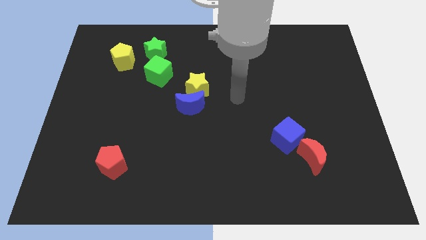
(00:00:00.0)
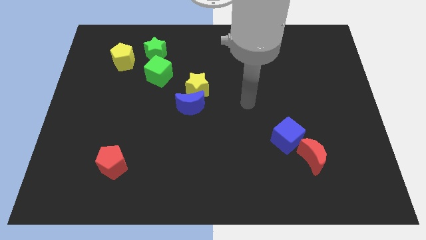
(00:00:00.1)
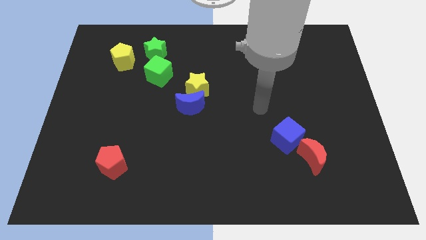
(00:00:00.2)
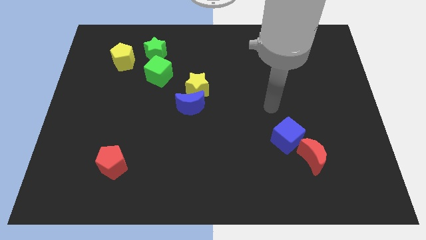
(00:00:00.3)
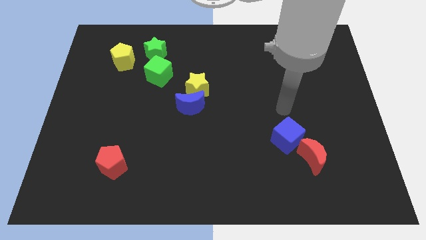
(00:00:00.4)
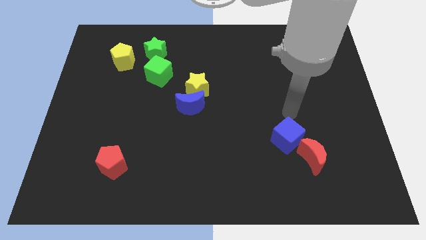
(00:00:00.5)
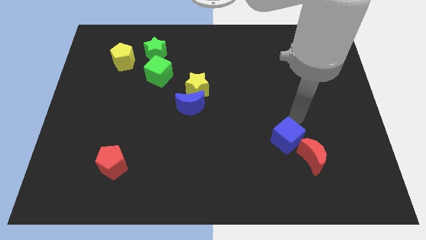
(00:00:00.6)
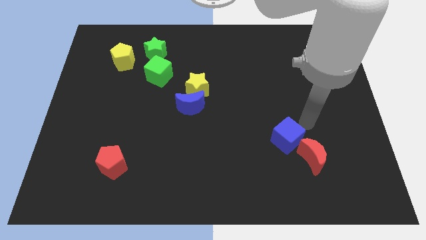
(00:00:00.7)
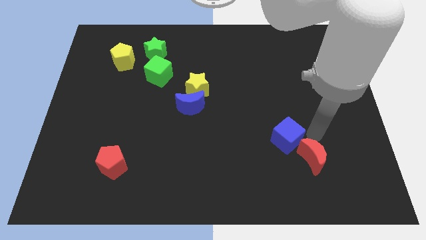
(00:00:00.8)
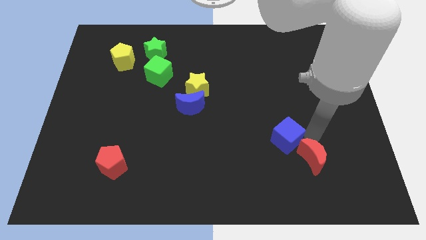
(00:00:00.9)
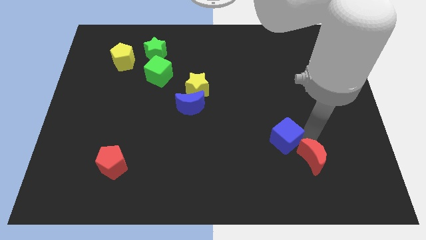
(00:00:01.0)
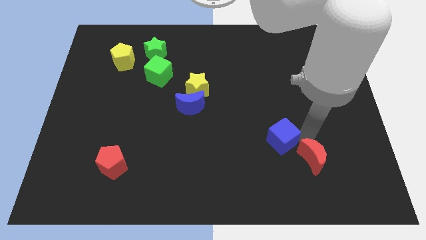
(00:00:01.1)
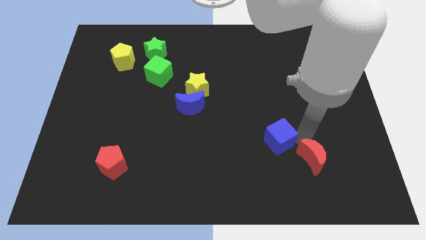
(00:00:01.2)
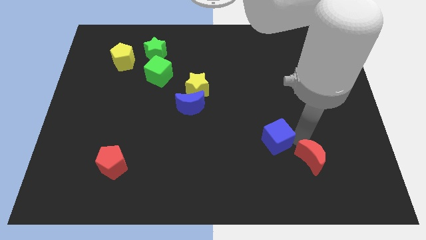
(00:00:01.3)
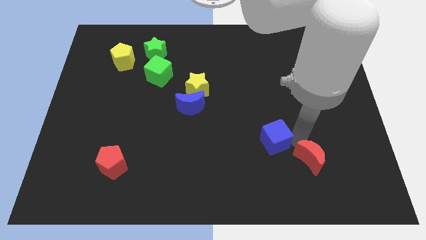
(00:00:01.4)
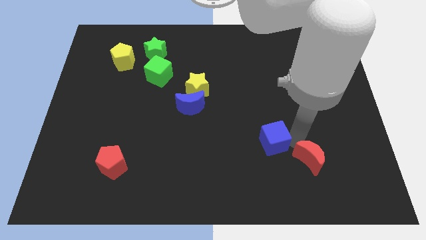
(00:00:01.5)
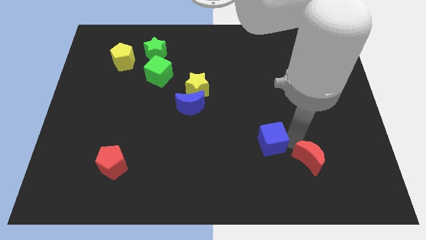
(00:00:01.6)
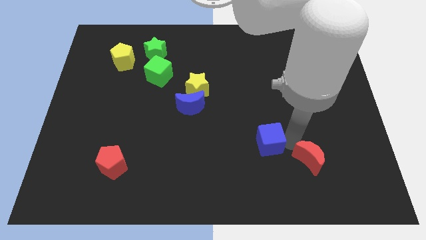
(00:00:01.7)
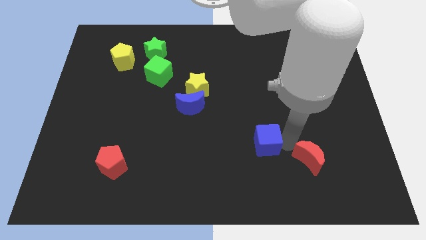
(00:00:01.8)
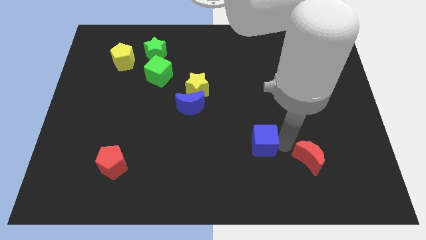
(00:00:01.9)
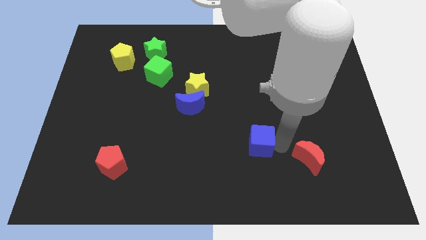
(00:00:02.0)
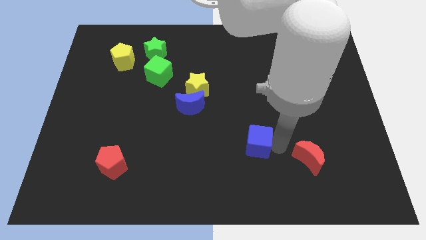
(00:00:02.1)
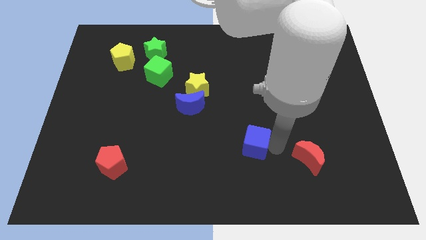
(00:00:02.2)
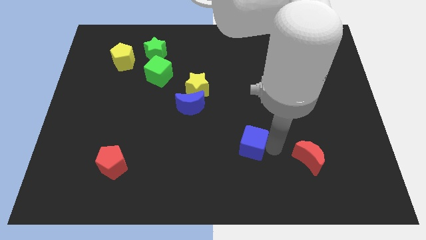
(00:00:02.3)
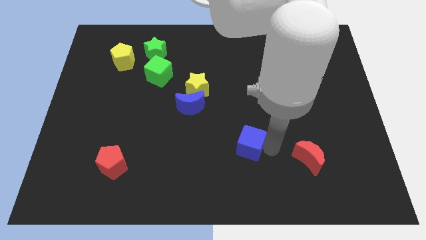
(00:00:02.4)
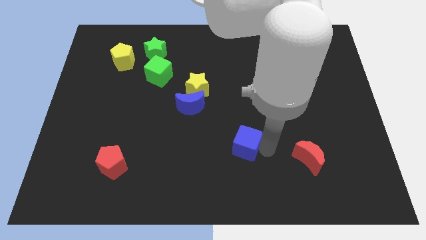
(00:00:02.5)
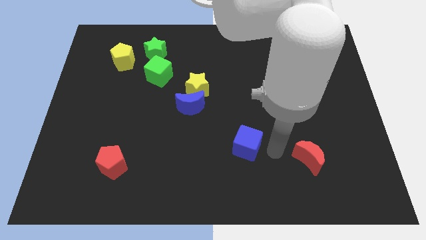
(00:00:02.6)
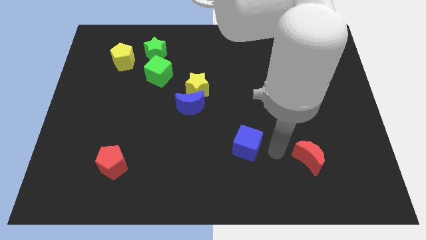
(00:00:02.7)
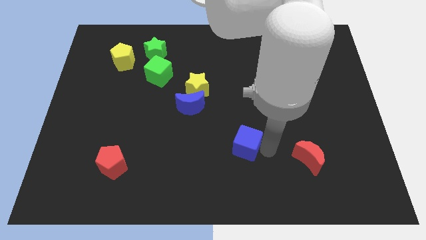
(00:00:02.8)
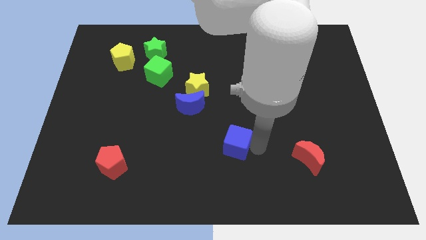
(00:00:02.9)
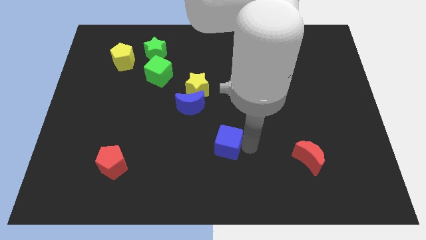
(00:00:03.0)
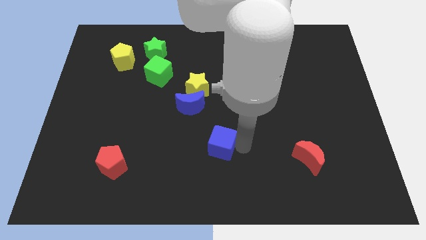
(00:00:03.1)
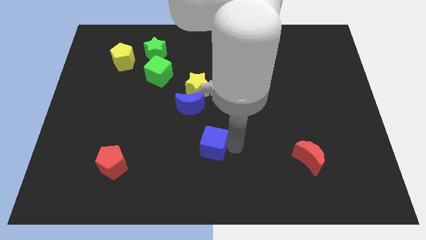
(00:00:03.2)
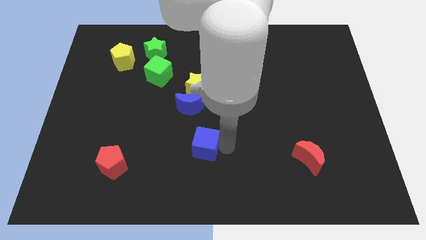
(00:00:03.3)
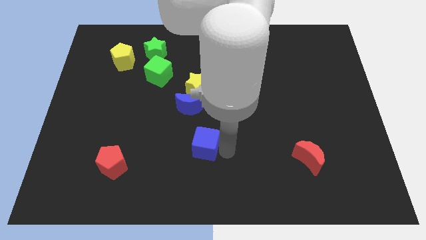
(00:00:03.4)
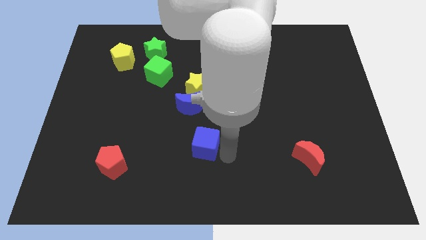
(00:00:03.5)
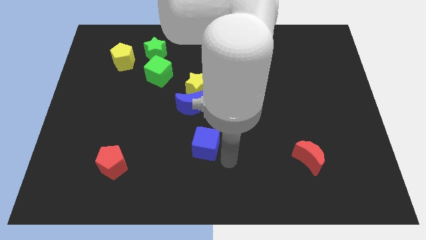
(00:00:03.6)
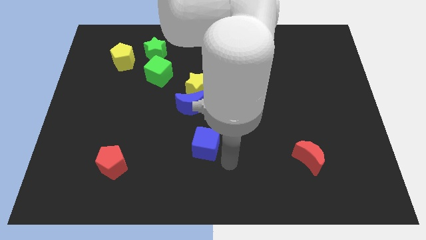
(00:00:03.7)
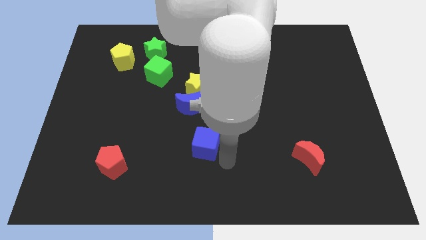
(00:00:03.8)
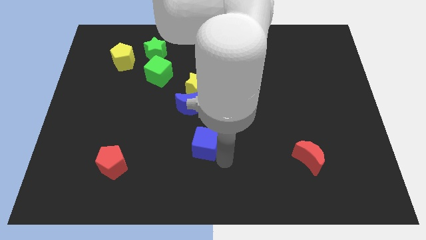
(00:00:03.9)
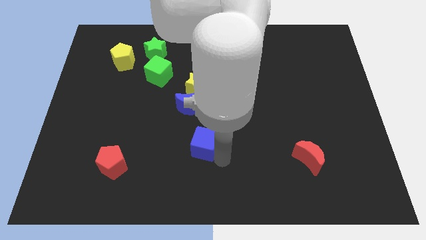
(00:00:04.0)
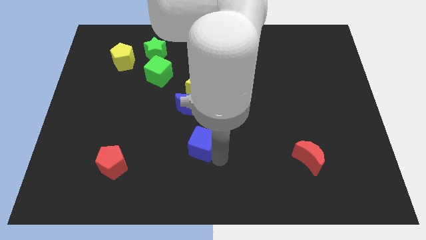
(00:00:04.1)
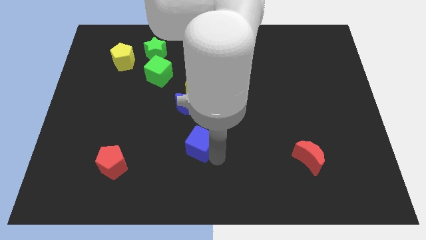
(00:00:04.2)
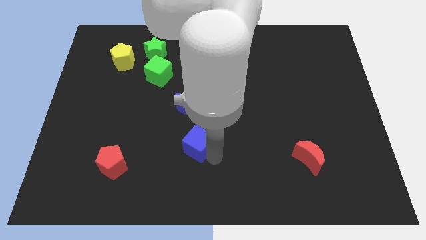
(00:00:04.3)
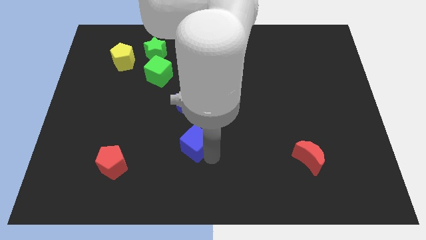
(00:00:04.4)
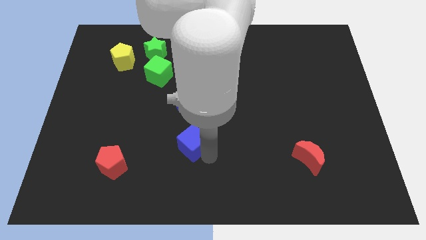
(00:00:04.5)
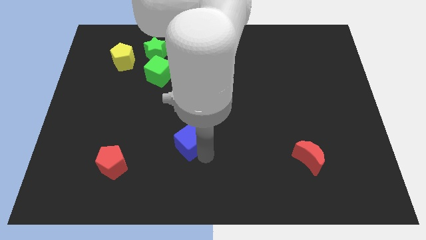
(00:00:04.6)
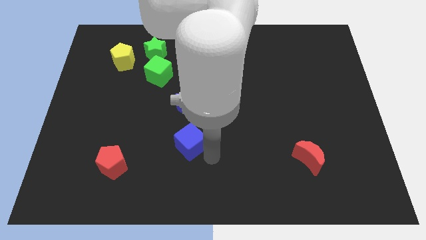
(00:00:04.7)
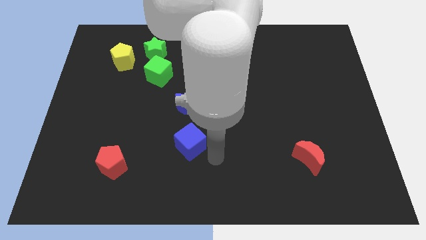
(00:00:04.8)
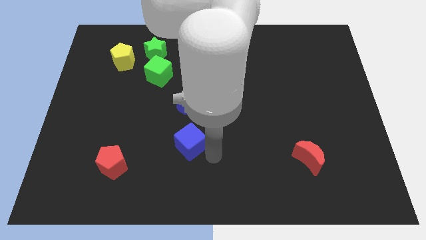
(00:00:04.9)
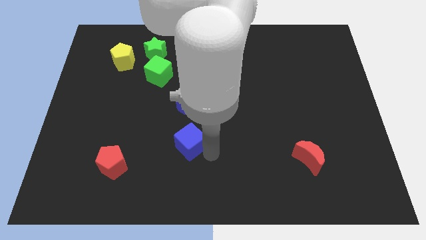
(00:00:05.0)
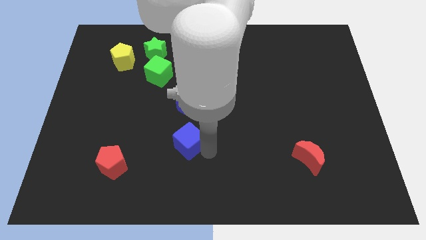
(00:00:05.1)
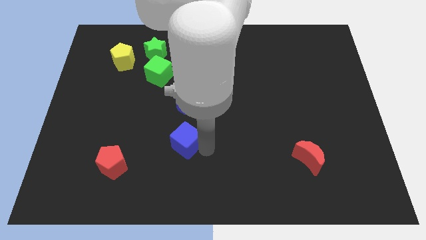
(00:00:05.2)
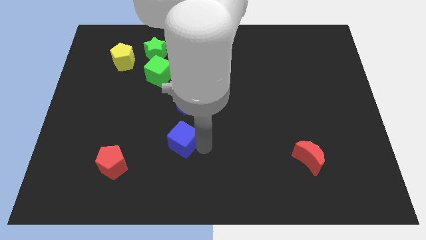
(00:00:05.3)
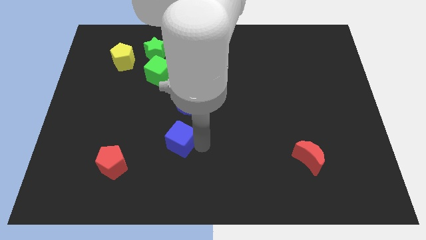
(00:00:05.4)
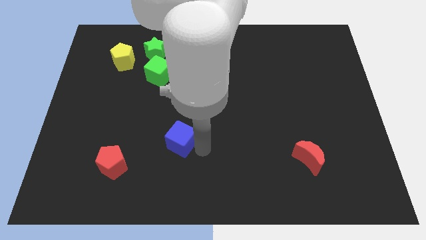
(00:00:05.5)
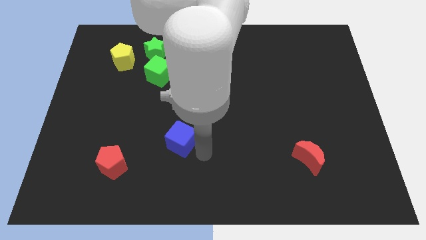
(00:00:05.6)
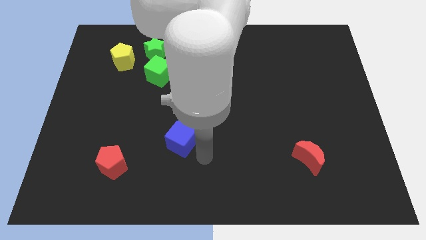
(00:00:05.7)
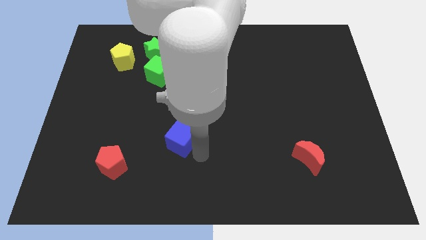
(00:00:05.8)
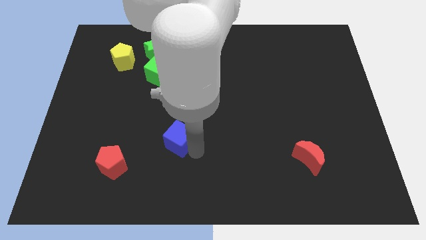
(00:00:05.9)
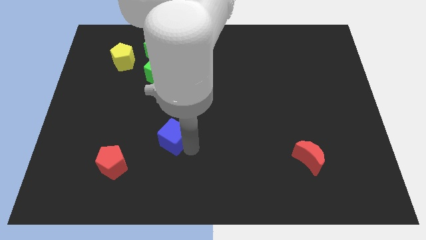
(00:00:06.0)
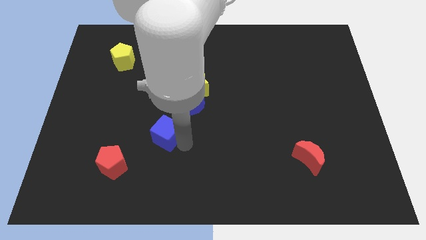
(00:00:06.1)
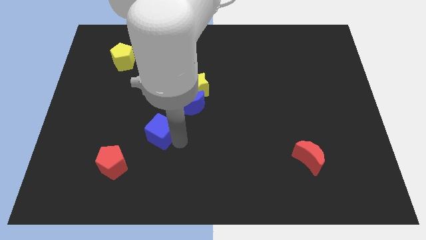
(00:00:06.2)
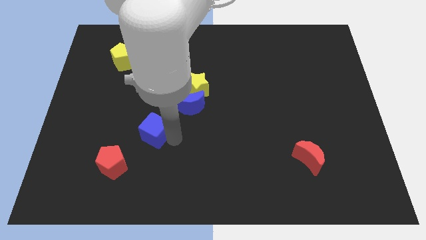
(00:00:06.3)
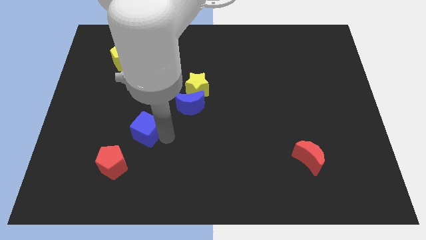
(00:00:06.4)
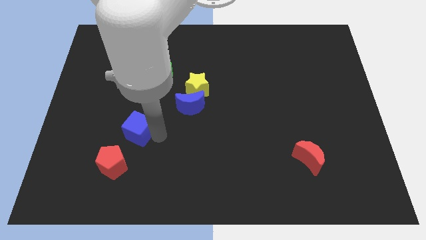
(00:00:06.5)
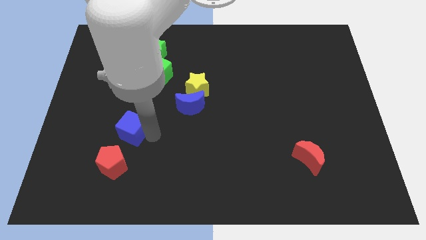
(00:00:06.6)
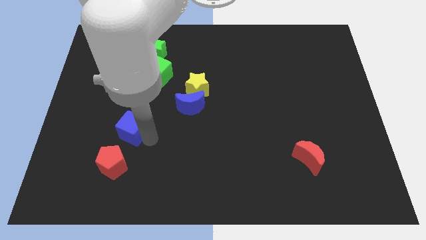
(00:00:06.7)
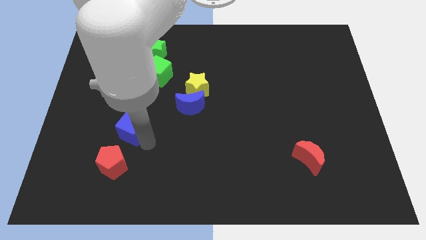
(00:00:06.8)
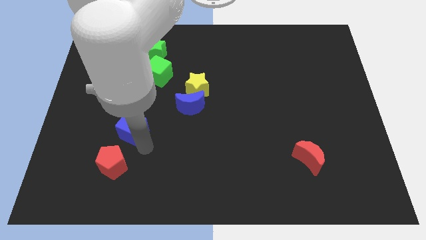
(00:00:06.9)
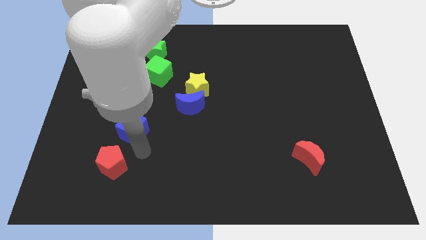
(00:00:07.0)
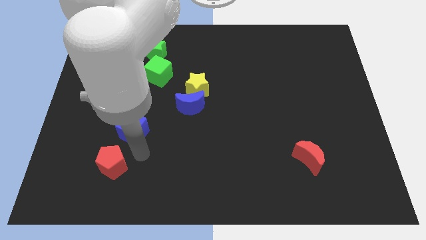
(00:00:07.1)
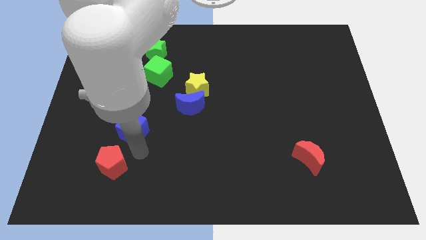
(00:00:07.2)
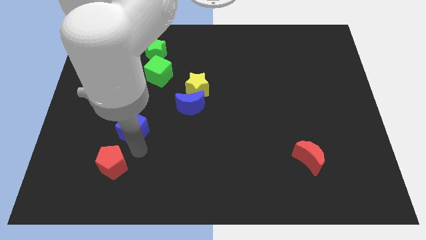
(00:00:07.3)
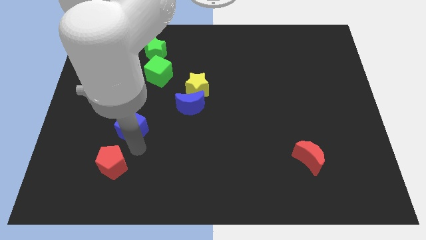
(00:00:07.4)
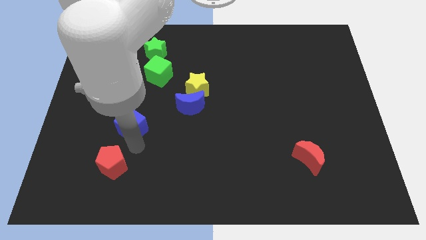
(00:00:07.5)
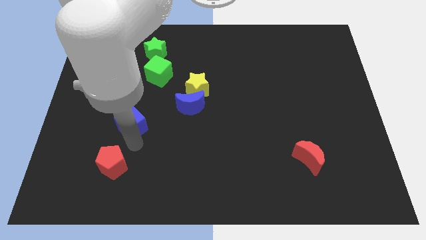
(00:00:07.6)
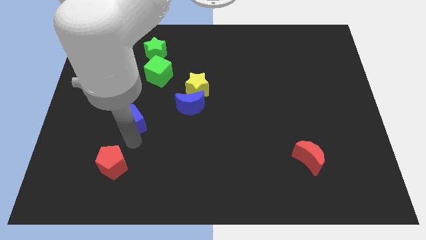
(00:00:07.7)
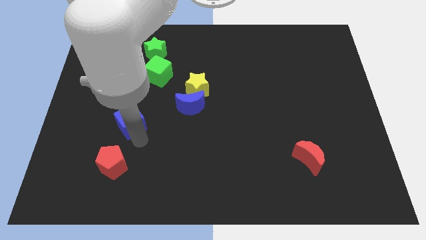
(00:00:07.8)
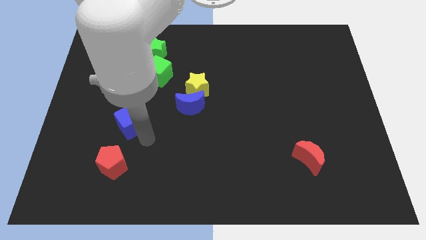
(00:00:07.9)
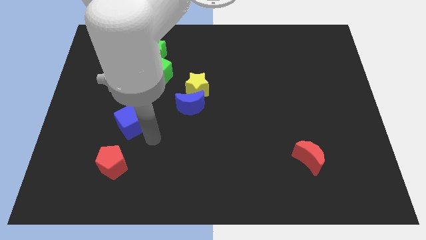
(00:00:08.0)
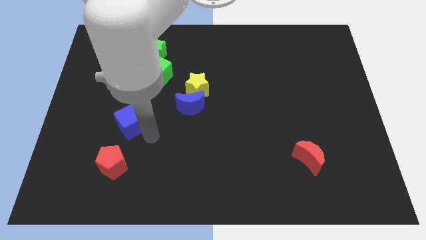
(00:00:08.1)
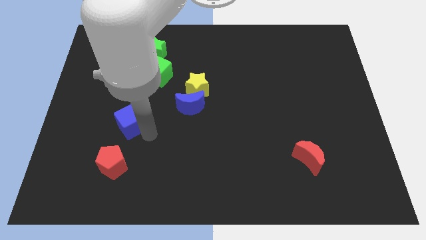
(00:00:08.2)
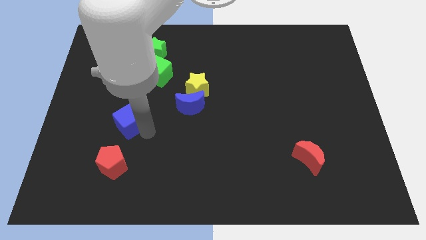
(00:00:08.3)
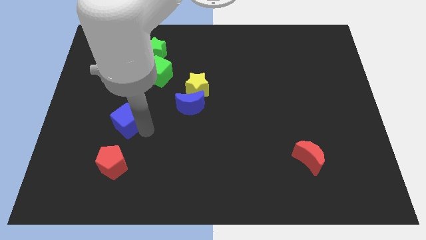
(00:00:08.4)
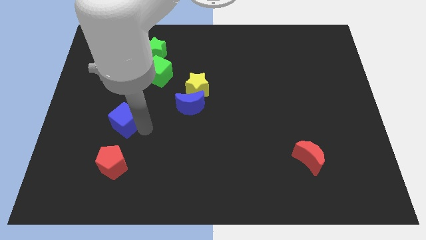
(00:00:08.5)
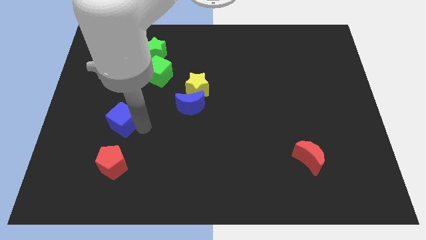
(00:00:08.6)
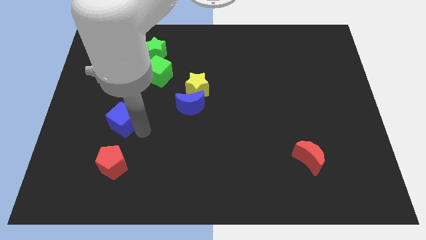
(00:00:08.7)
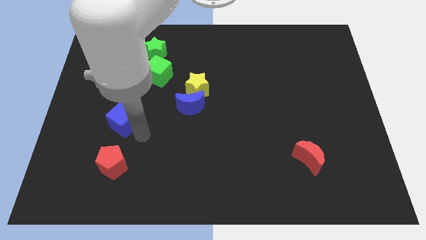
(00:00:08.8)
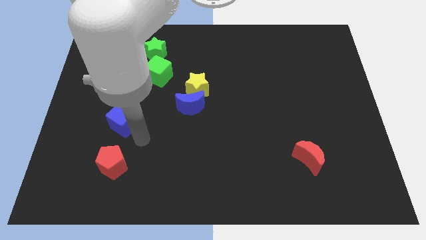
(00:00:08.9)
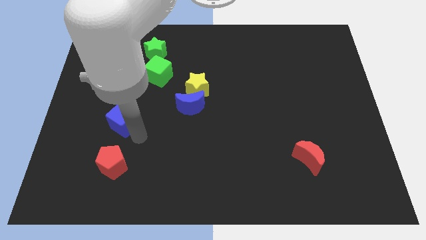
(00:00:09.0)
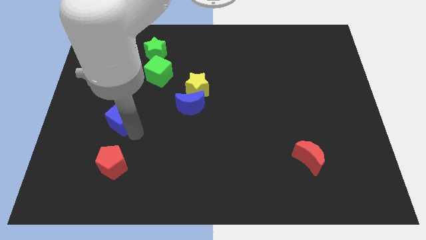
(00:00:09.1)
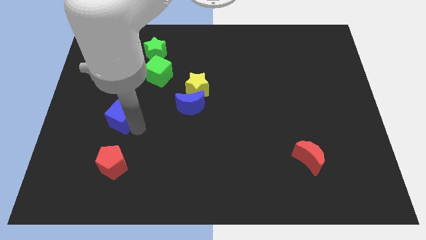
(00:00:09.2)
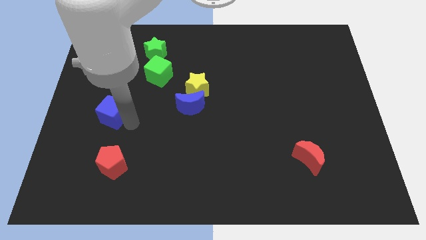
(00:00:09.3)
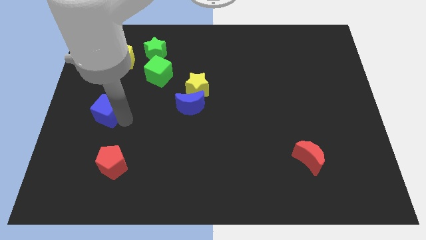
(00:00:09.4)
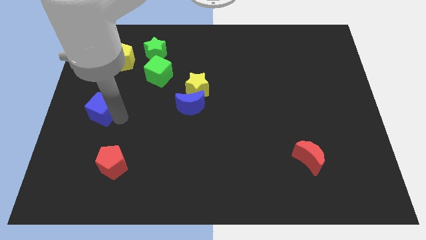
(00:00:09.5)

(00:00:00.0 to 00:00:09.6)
move the blue cube to the left side
